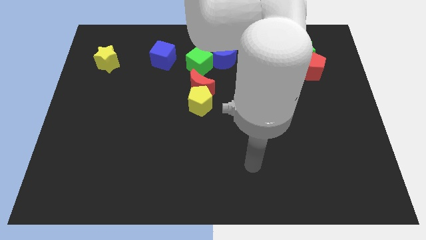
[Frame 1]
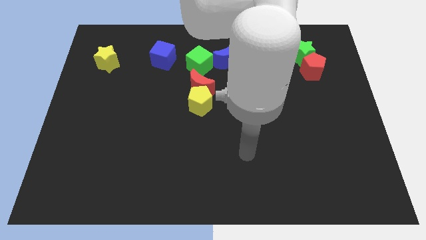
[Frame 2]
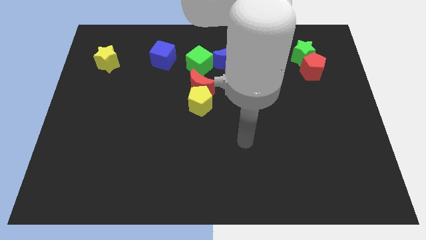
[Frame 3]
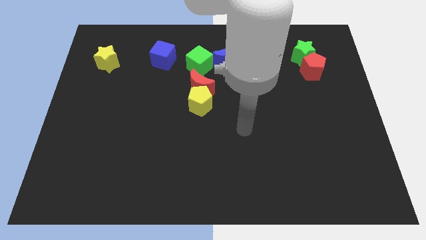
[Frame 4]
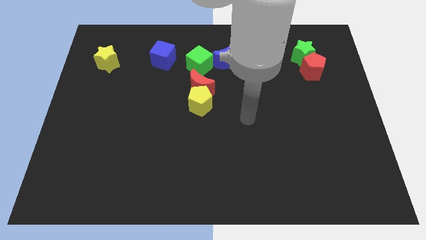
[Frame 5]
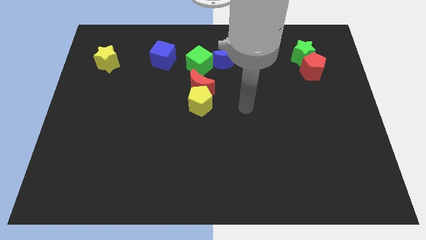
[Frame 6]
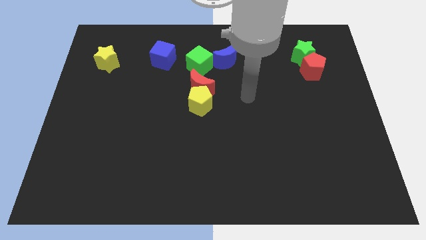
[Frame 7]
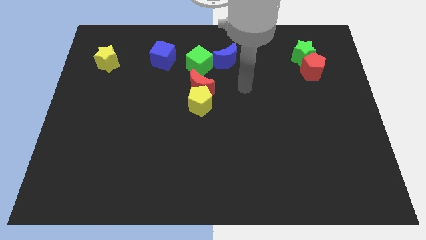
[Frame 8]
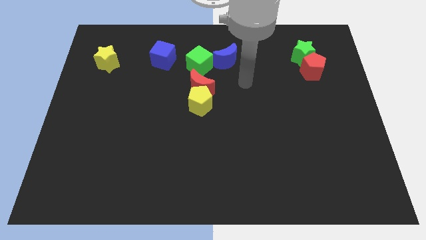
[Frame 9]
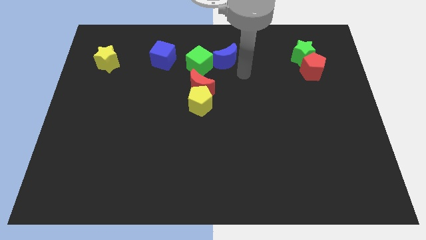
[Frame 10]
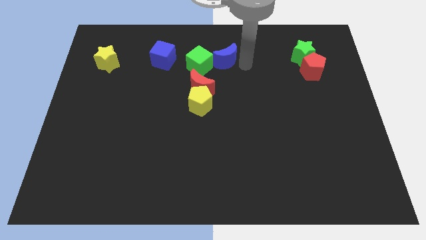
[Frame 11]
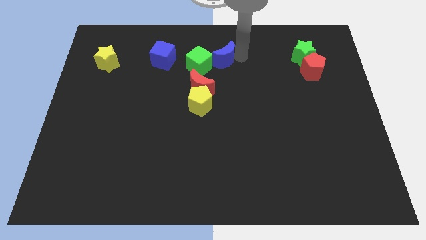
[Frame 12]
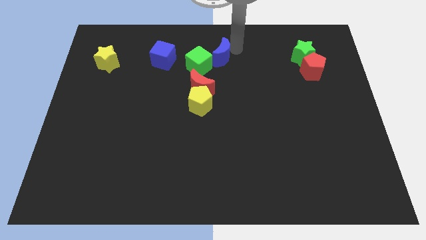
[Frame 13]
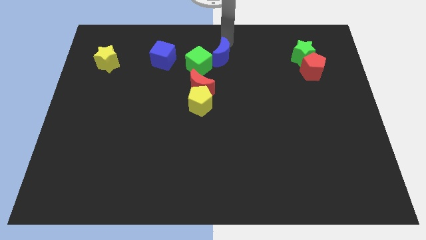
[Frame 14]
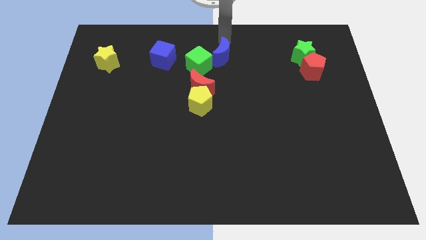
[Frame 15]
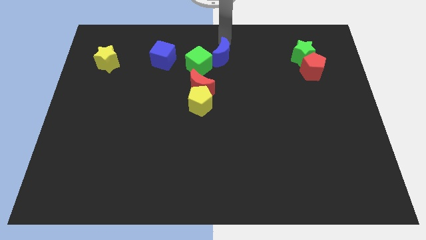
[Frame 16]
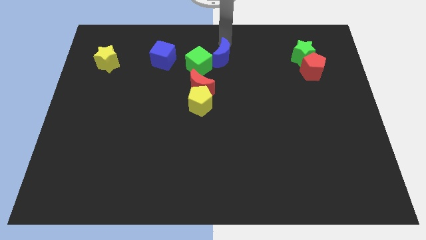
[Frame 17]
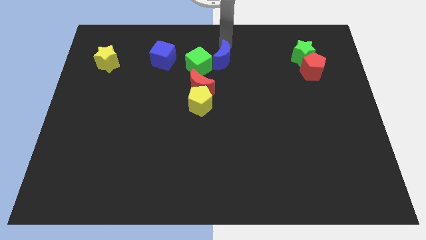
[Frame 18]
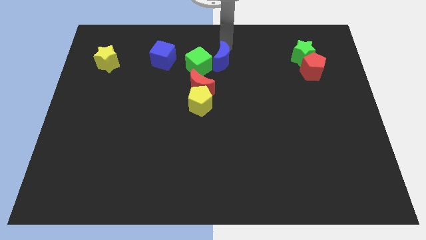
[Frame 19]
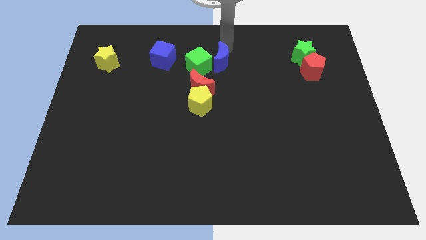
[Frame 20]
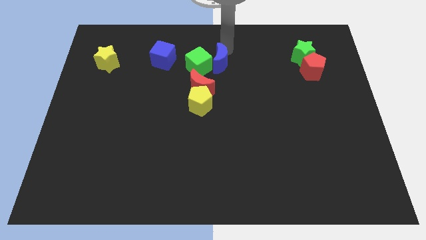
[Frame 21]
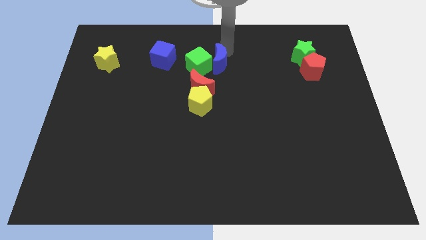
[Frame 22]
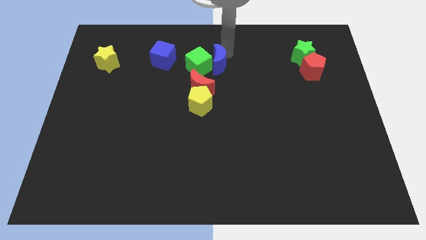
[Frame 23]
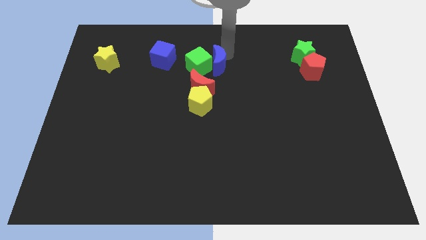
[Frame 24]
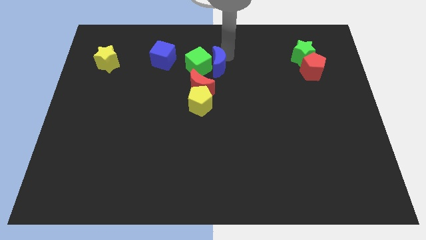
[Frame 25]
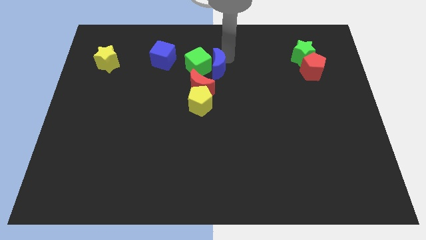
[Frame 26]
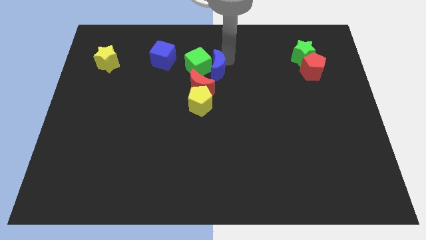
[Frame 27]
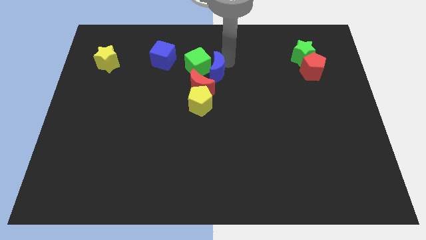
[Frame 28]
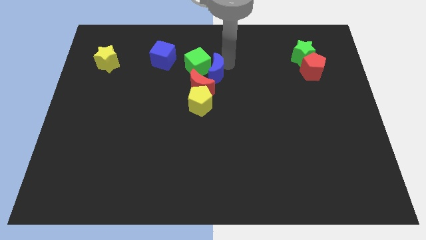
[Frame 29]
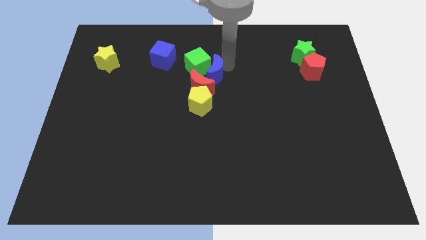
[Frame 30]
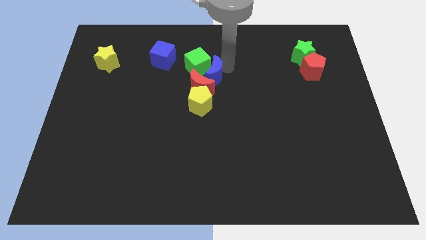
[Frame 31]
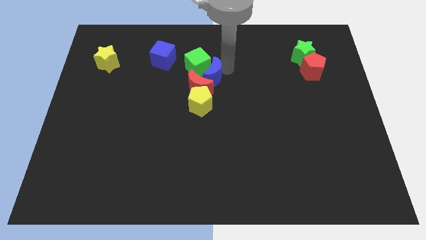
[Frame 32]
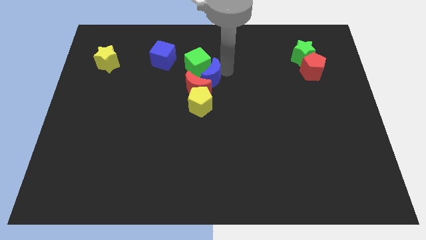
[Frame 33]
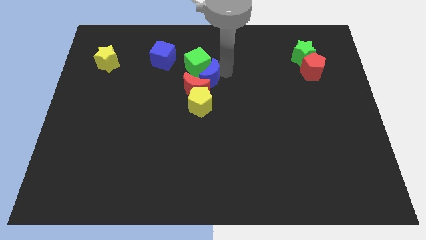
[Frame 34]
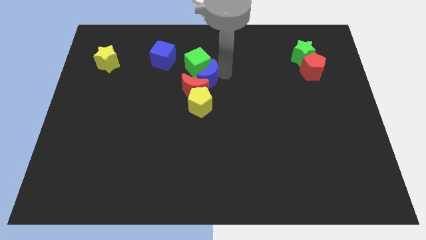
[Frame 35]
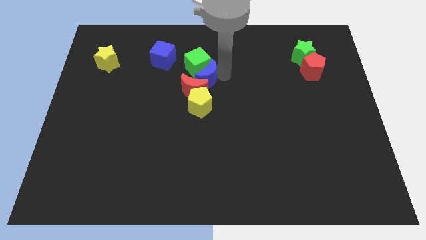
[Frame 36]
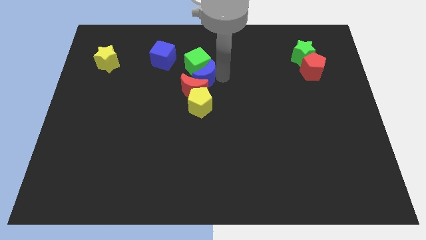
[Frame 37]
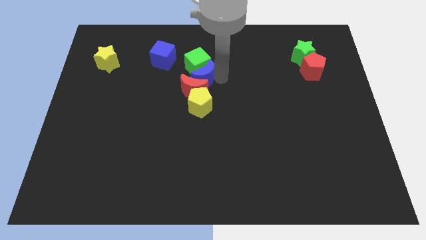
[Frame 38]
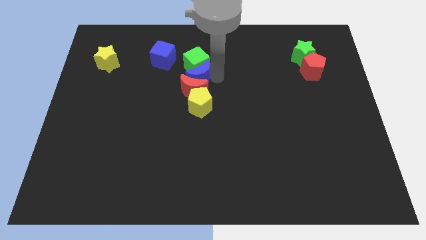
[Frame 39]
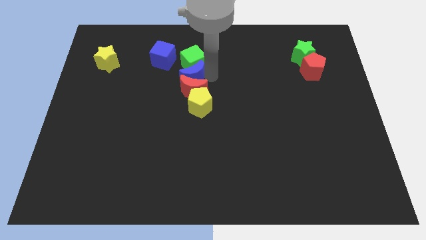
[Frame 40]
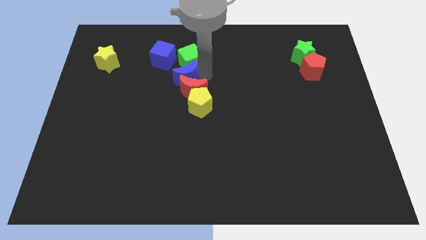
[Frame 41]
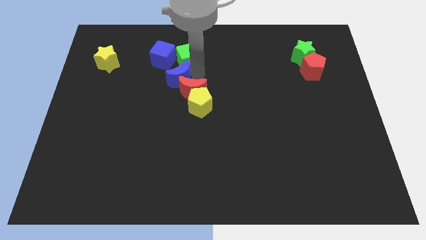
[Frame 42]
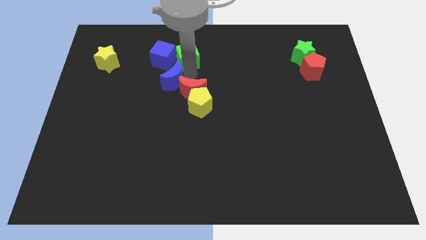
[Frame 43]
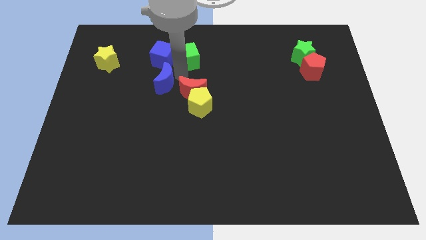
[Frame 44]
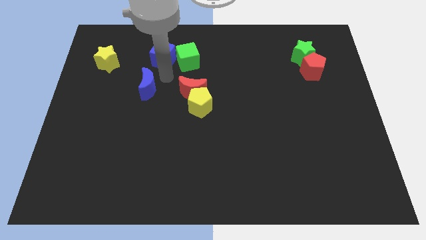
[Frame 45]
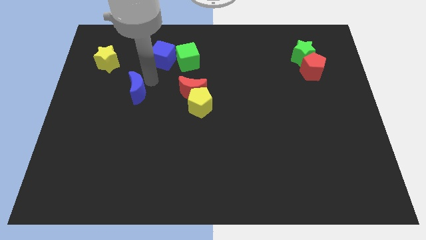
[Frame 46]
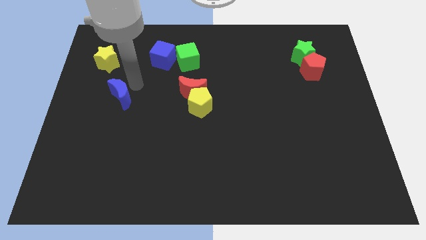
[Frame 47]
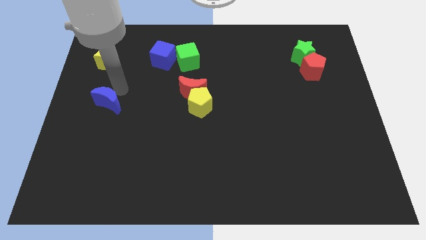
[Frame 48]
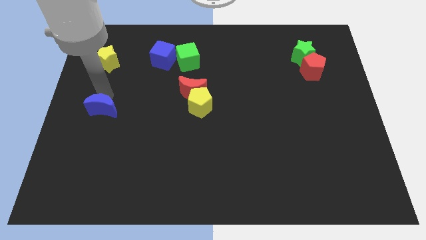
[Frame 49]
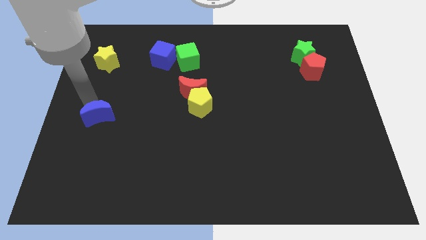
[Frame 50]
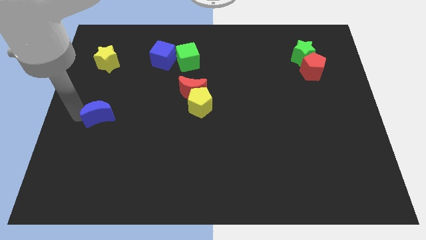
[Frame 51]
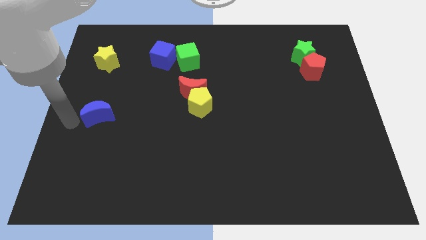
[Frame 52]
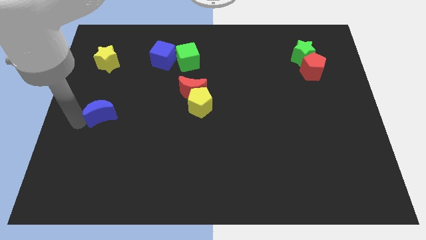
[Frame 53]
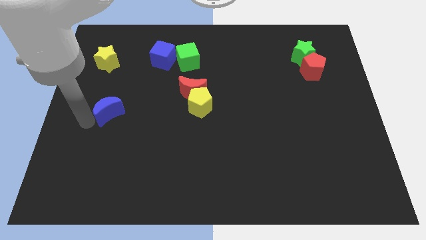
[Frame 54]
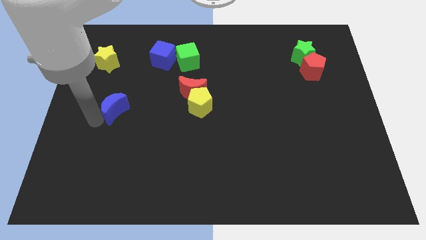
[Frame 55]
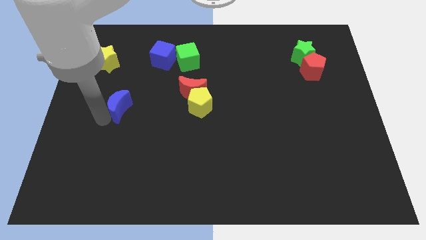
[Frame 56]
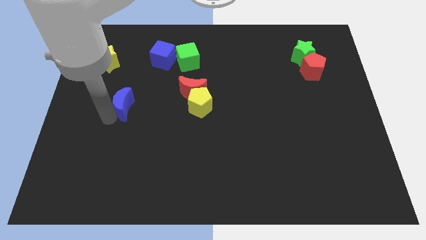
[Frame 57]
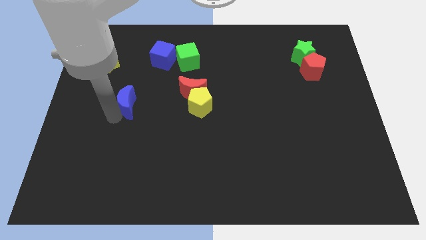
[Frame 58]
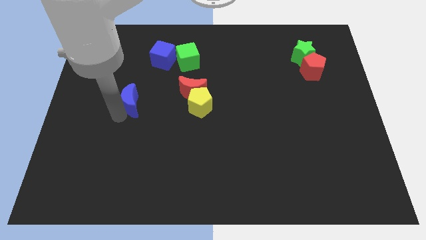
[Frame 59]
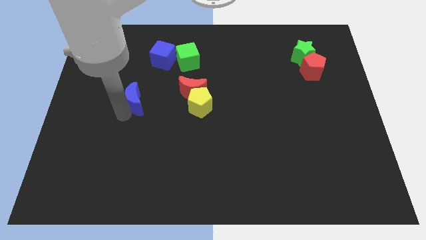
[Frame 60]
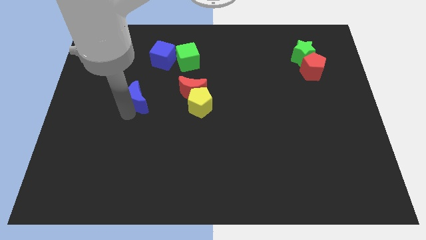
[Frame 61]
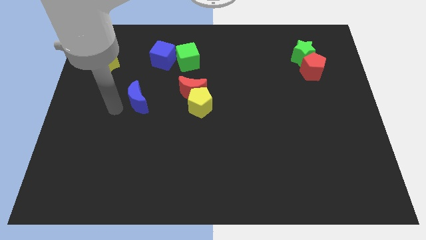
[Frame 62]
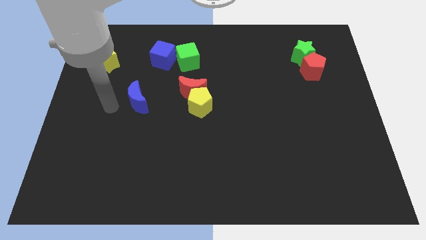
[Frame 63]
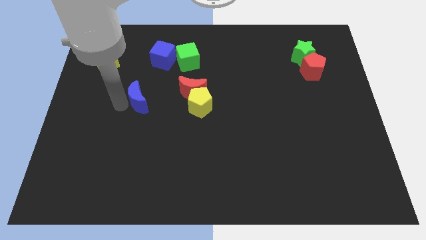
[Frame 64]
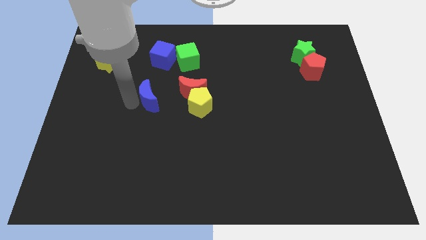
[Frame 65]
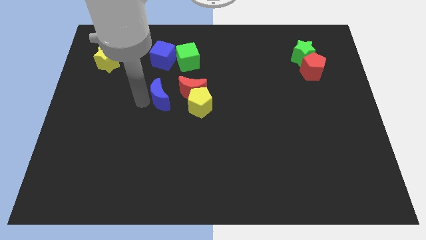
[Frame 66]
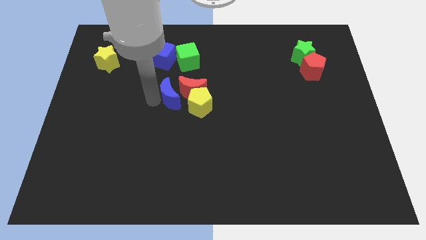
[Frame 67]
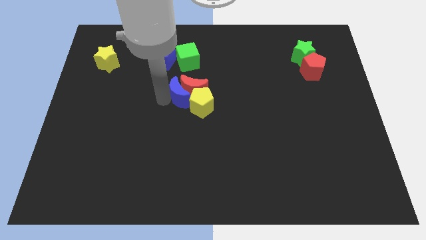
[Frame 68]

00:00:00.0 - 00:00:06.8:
push the blue moon towards the yellow pentagon

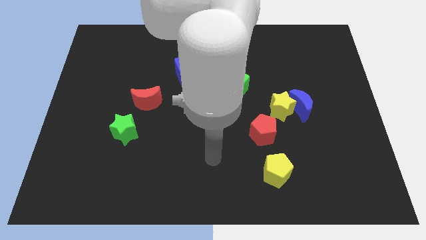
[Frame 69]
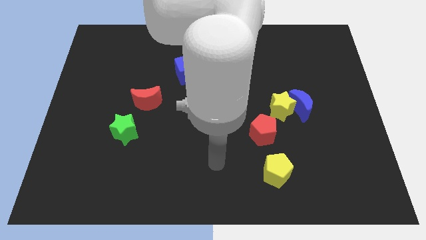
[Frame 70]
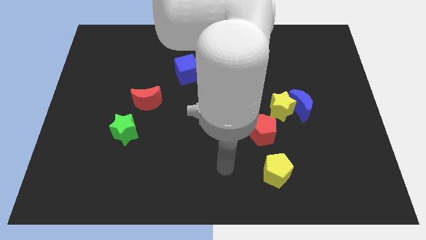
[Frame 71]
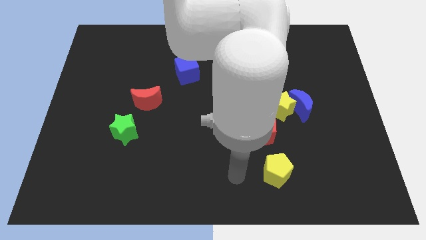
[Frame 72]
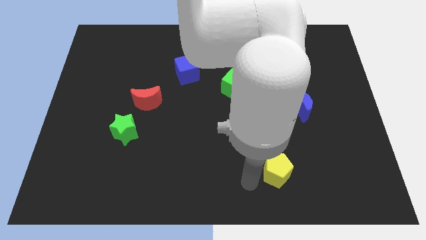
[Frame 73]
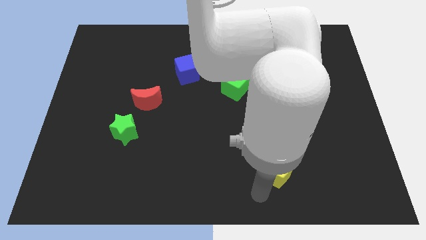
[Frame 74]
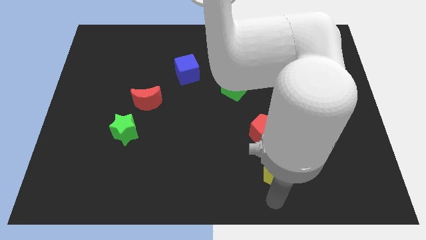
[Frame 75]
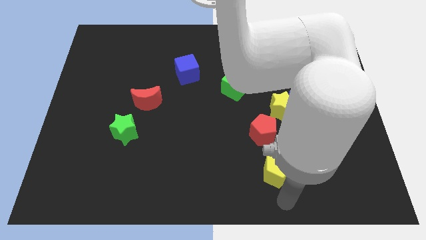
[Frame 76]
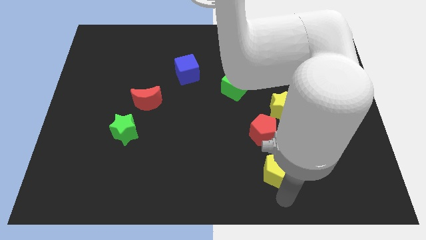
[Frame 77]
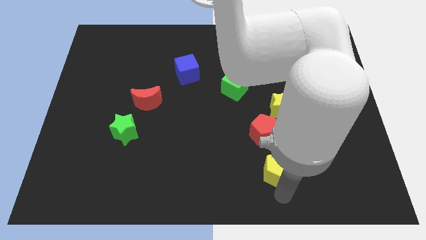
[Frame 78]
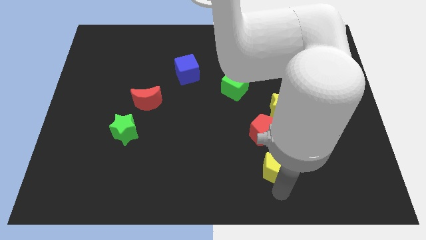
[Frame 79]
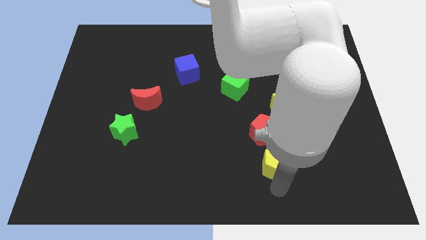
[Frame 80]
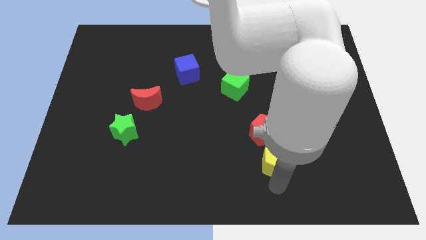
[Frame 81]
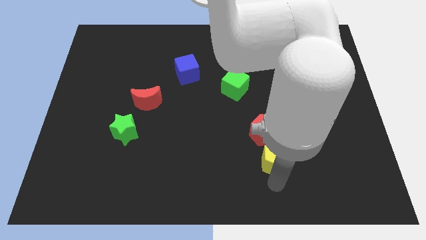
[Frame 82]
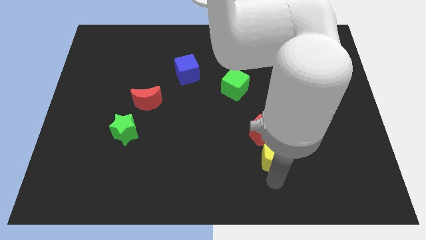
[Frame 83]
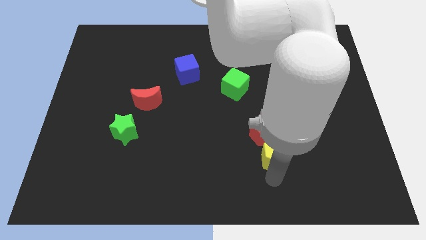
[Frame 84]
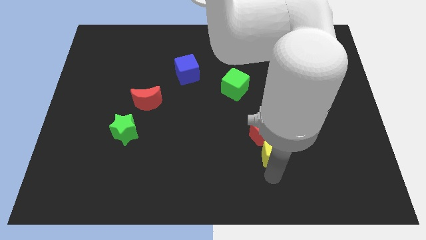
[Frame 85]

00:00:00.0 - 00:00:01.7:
push the yellow pentagon next to the red pentagon
